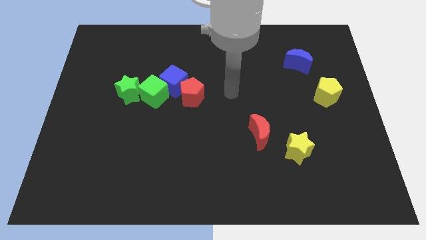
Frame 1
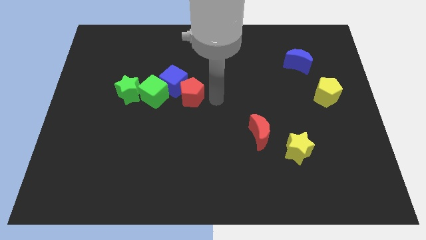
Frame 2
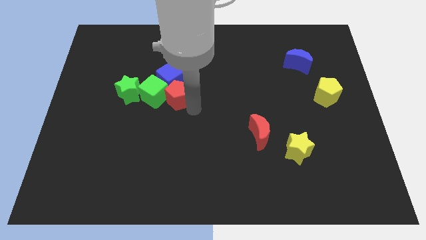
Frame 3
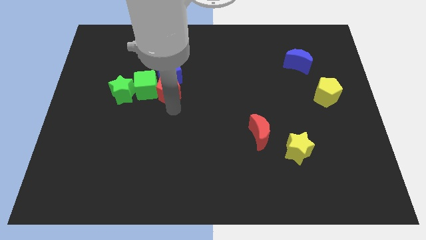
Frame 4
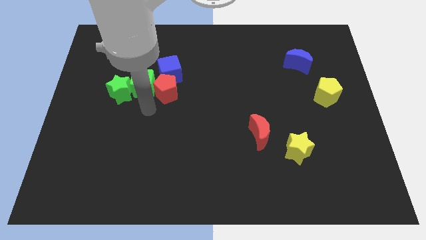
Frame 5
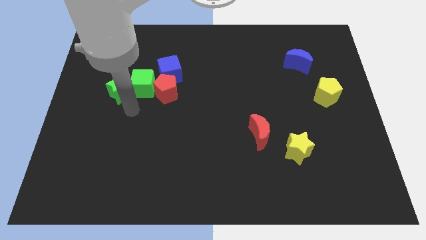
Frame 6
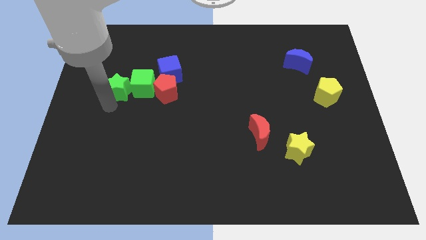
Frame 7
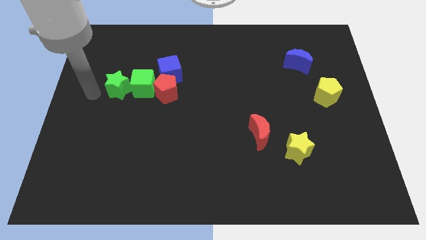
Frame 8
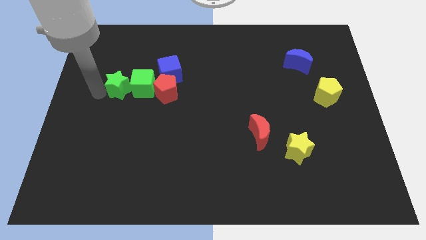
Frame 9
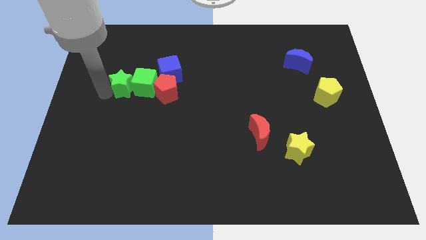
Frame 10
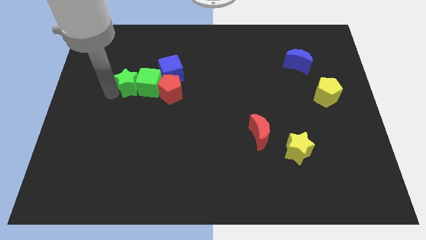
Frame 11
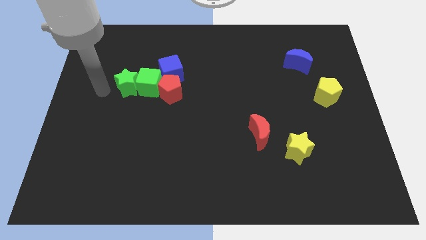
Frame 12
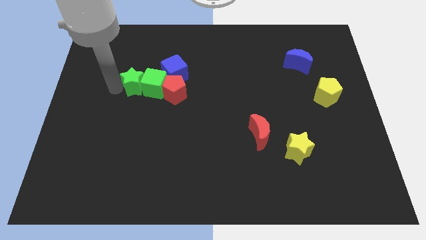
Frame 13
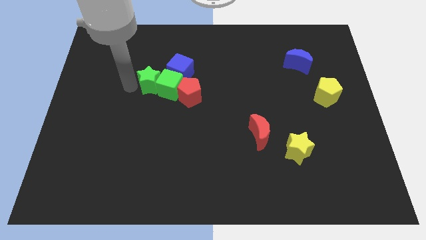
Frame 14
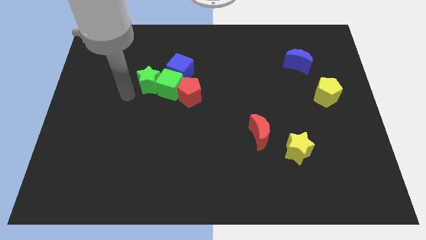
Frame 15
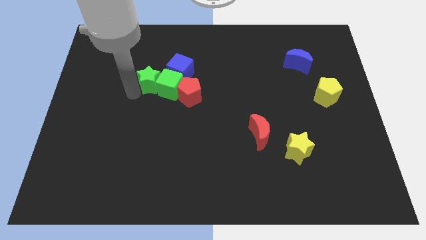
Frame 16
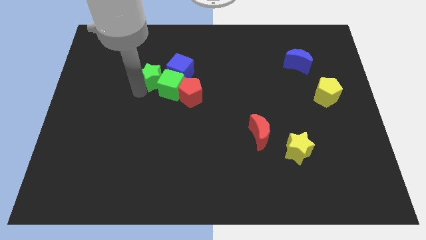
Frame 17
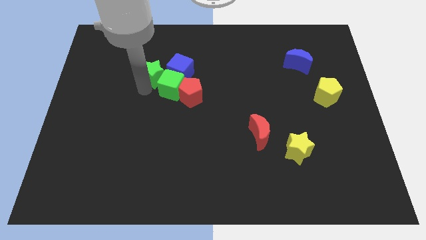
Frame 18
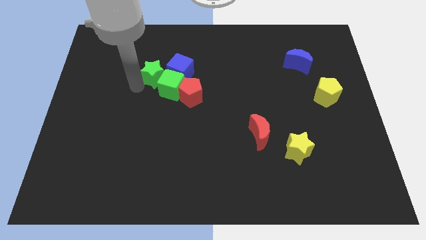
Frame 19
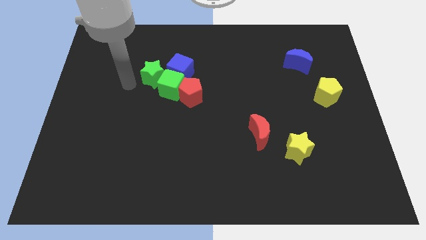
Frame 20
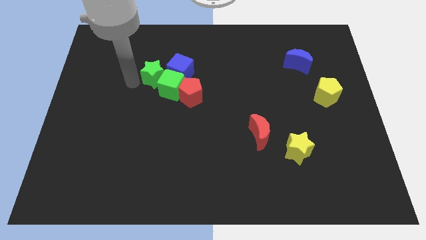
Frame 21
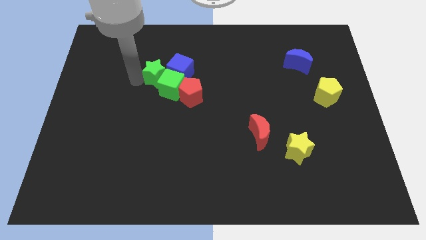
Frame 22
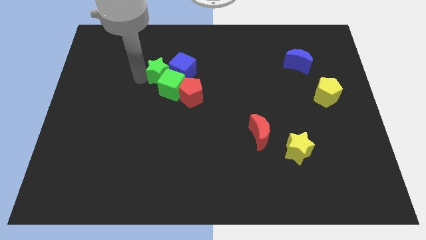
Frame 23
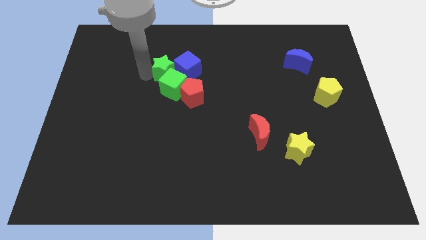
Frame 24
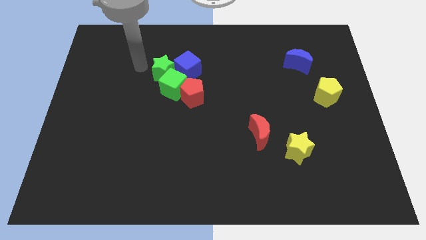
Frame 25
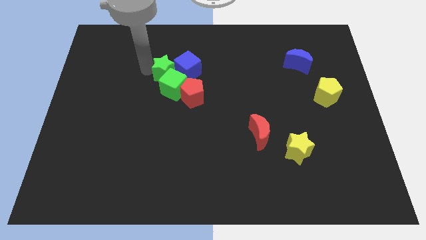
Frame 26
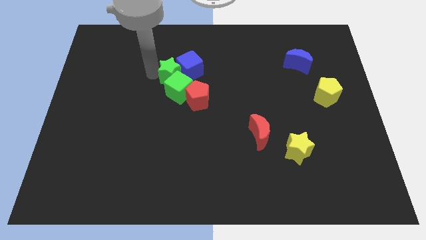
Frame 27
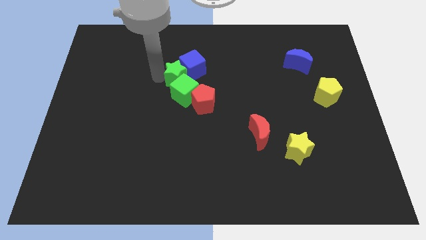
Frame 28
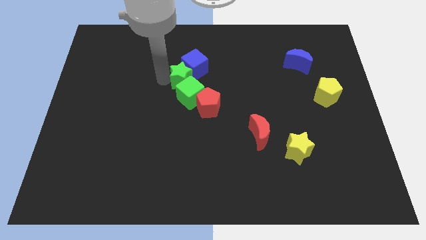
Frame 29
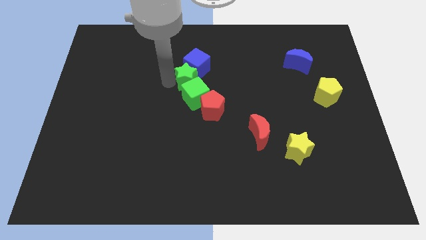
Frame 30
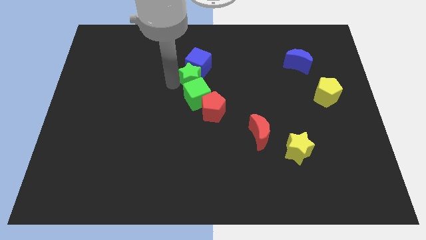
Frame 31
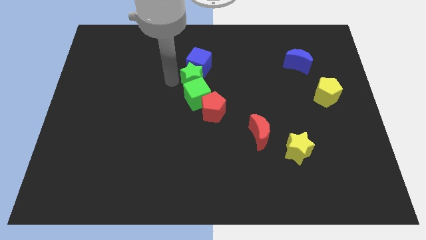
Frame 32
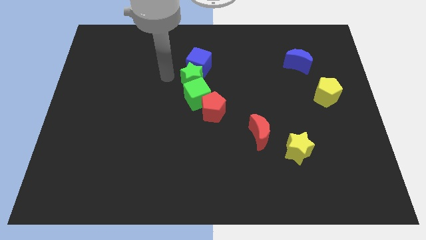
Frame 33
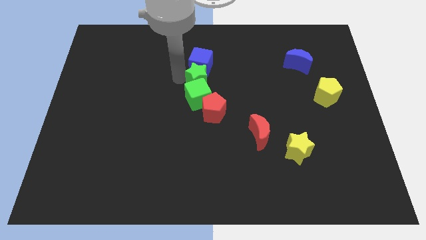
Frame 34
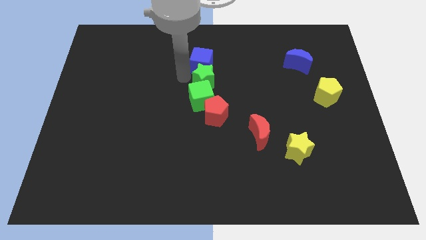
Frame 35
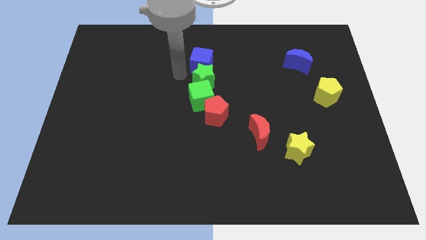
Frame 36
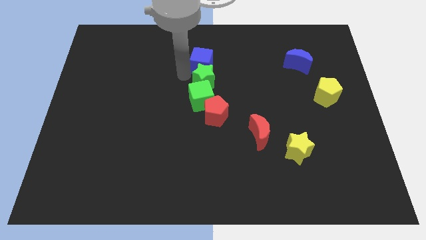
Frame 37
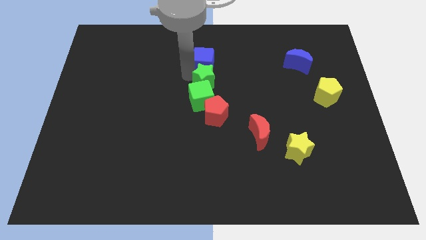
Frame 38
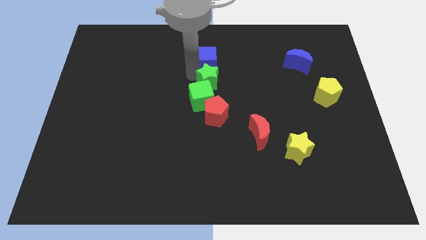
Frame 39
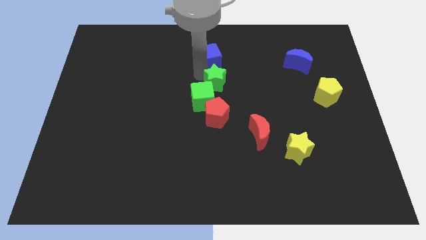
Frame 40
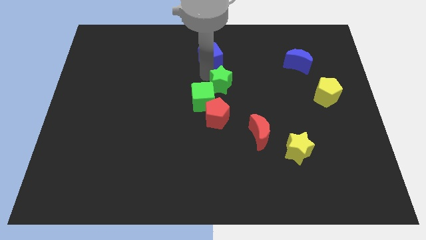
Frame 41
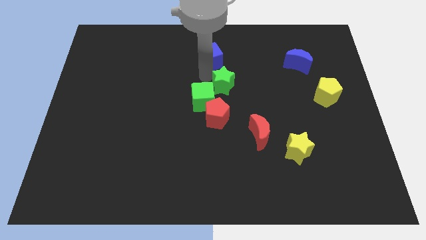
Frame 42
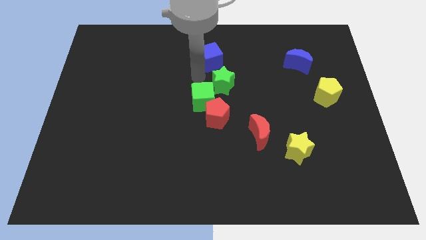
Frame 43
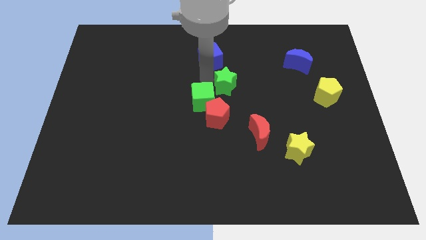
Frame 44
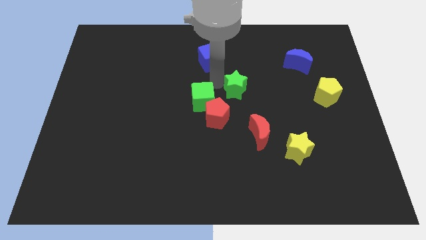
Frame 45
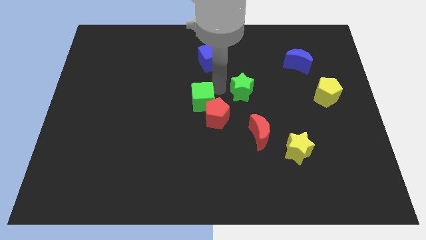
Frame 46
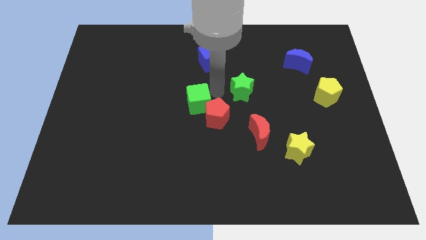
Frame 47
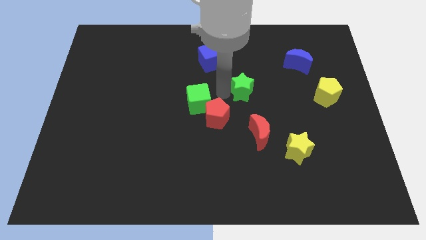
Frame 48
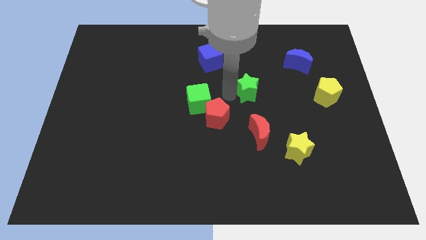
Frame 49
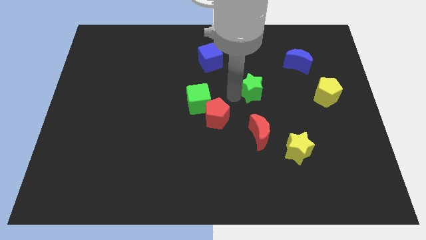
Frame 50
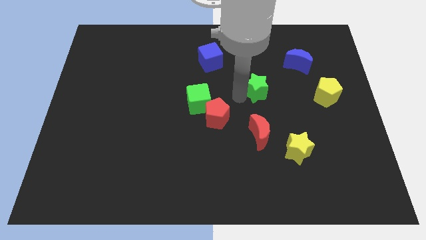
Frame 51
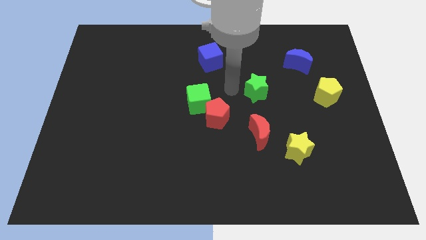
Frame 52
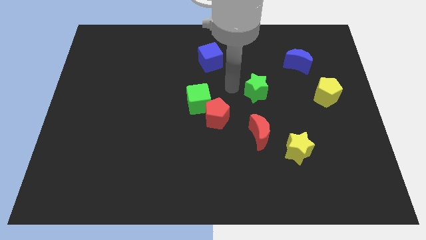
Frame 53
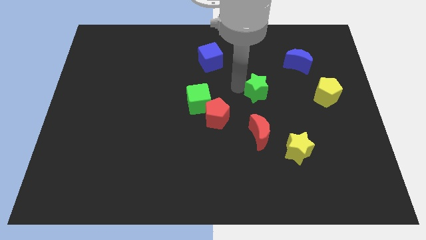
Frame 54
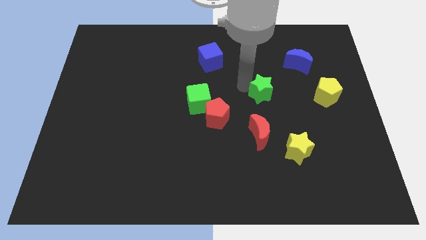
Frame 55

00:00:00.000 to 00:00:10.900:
push the green star to the left of the yellow pentagon

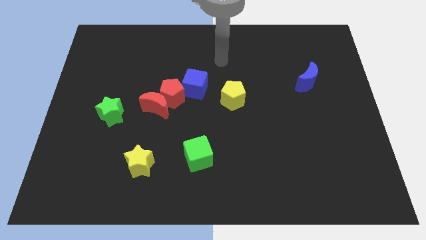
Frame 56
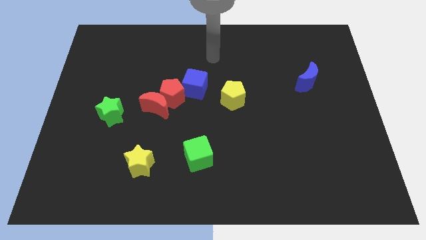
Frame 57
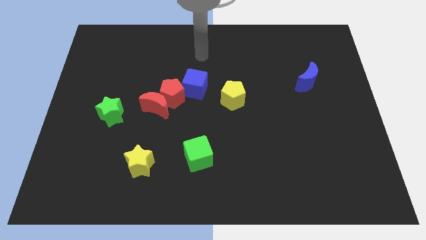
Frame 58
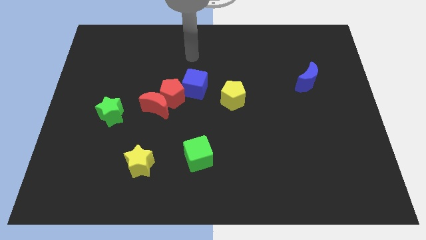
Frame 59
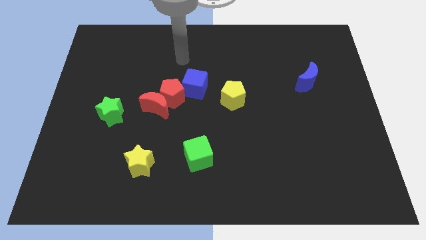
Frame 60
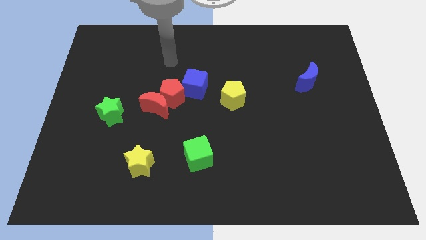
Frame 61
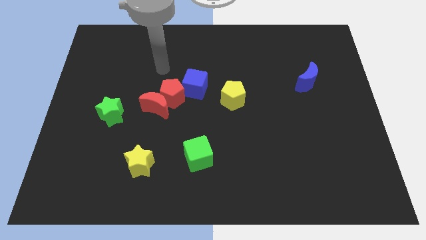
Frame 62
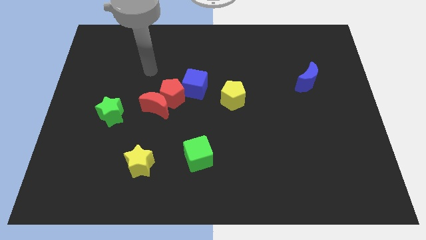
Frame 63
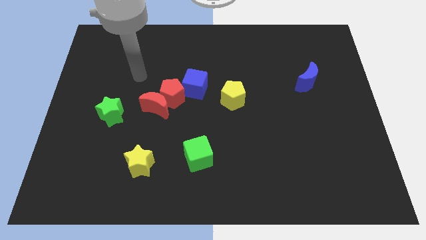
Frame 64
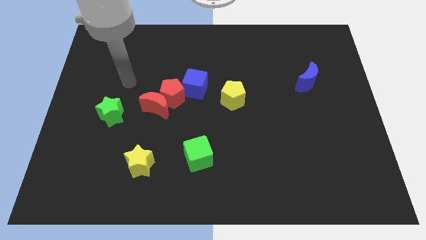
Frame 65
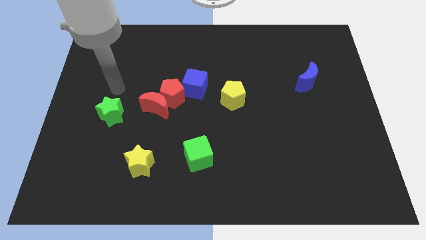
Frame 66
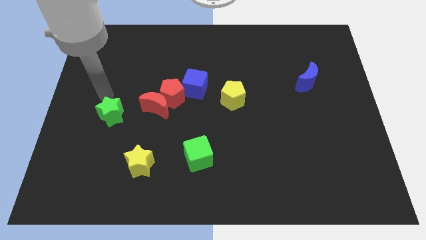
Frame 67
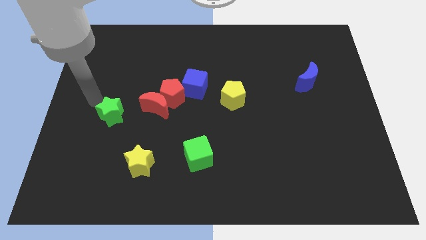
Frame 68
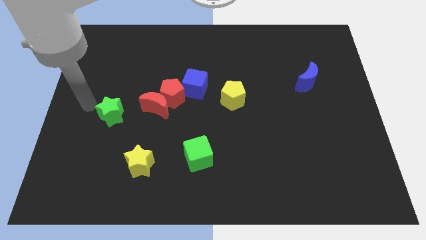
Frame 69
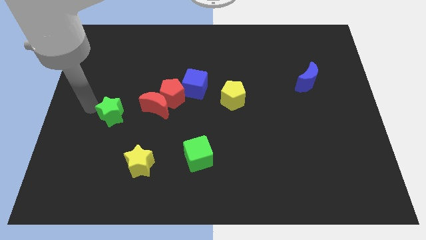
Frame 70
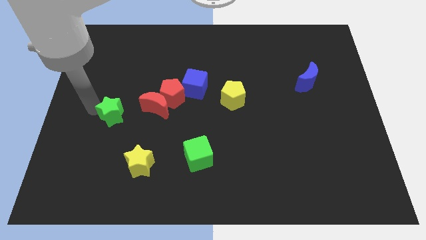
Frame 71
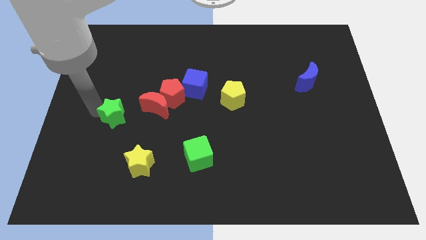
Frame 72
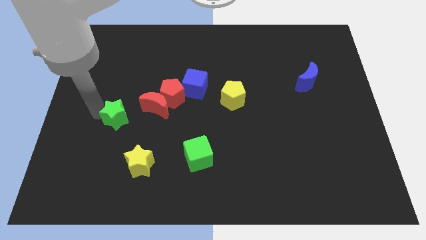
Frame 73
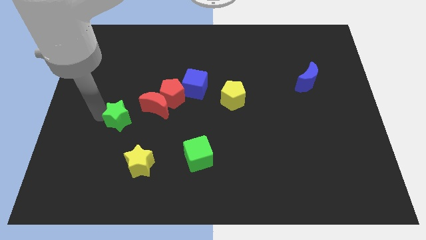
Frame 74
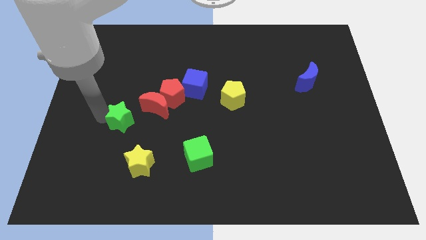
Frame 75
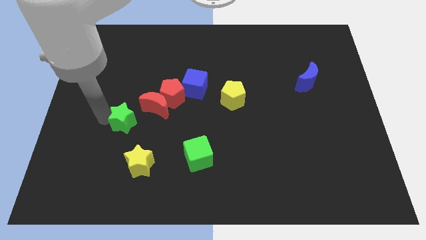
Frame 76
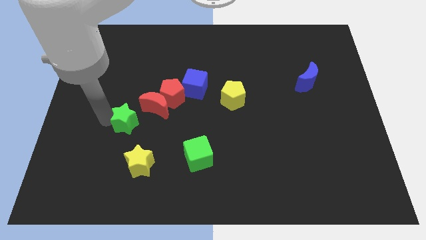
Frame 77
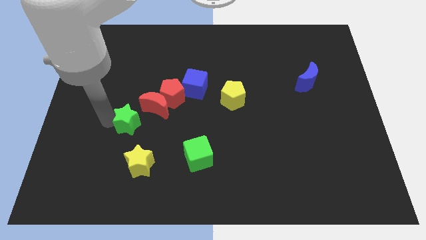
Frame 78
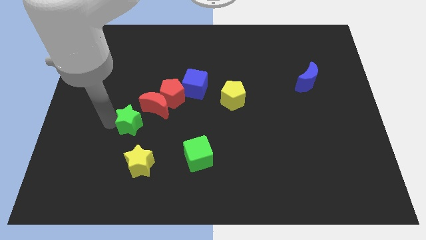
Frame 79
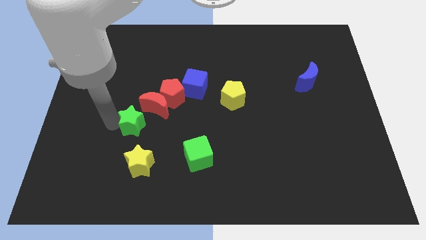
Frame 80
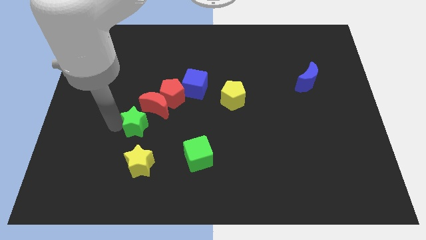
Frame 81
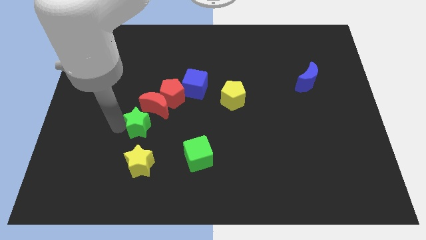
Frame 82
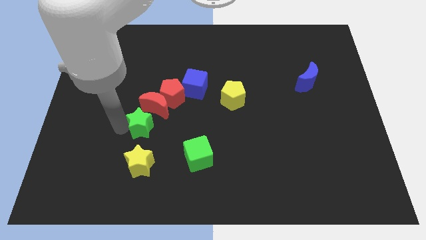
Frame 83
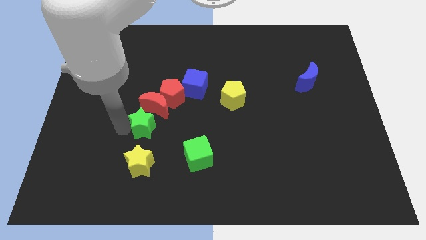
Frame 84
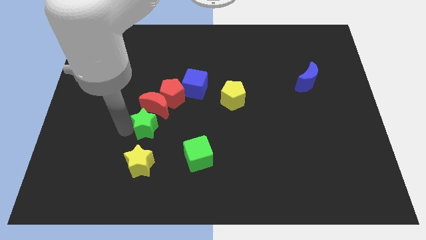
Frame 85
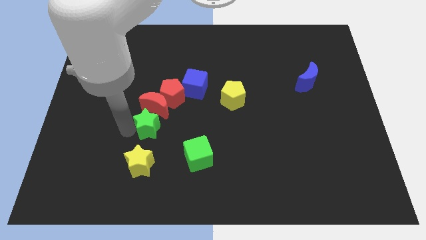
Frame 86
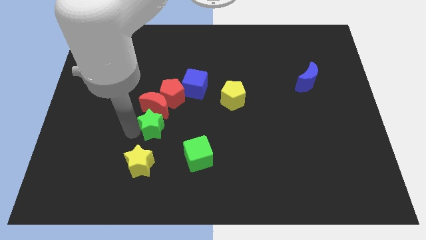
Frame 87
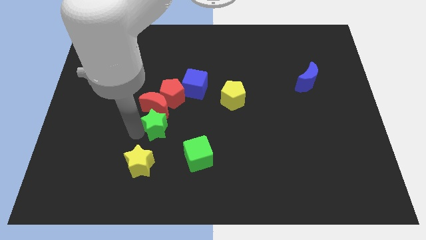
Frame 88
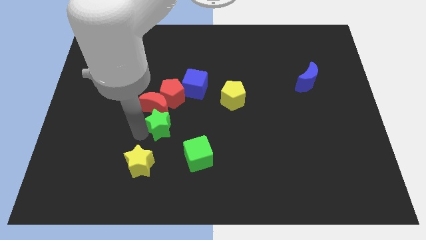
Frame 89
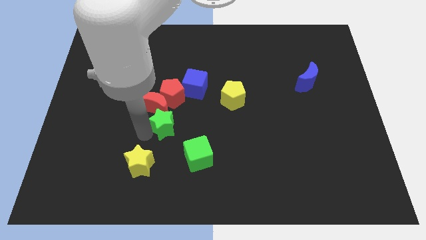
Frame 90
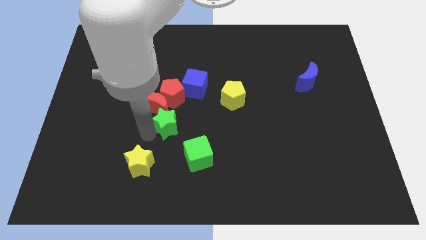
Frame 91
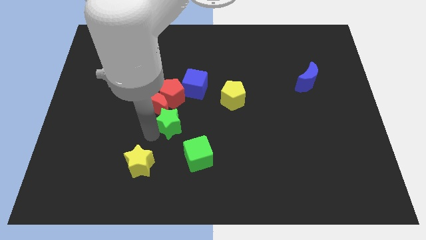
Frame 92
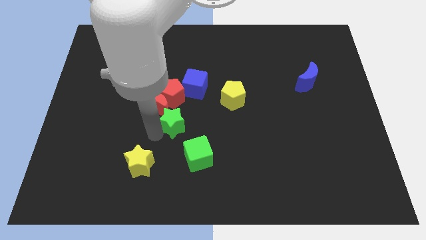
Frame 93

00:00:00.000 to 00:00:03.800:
put the green star to the bottom side of the blue cube
